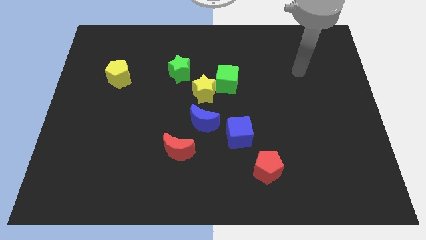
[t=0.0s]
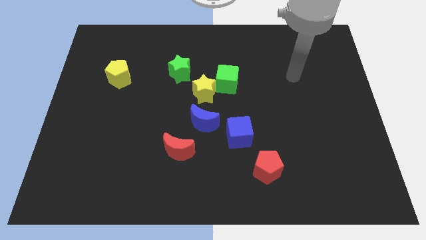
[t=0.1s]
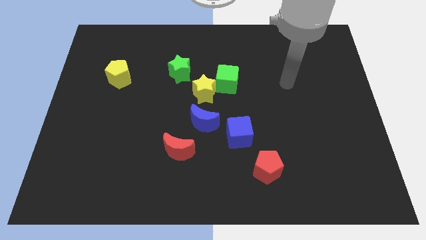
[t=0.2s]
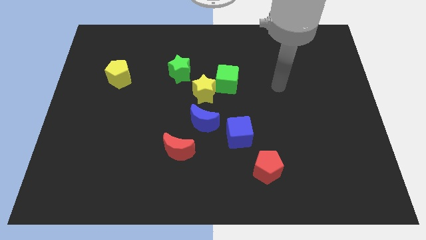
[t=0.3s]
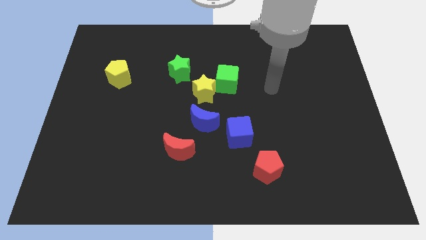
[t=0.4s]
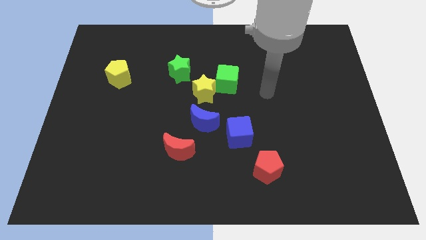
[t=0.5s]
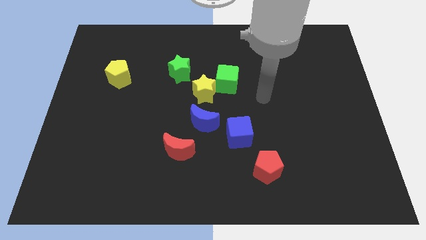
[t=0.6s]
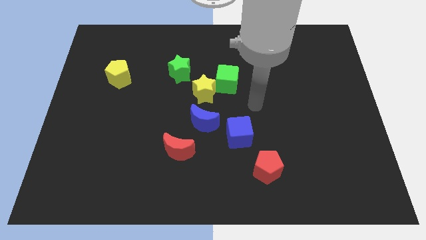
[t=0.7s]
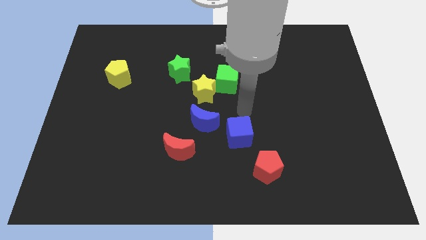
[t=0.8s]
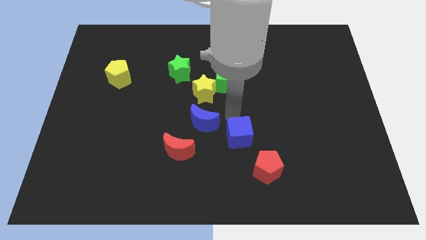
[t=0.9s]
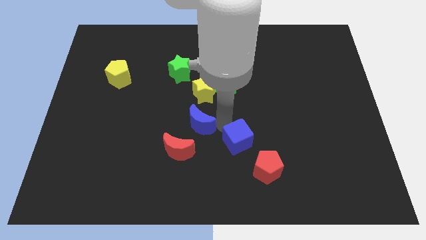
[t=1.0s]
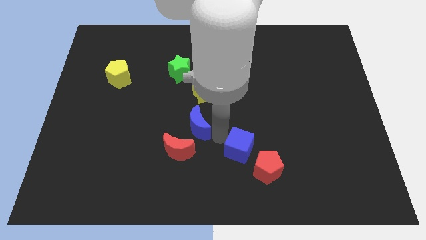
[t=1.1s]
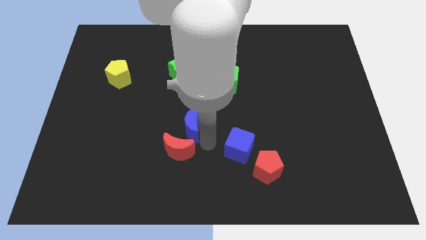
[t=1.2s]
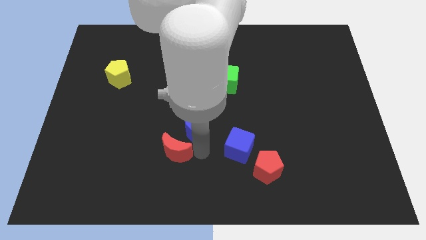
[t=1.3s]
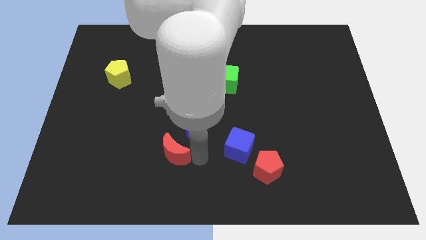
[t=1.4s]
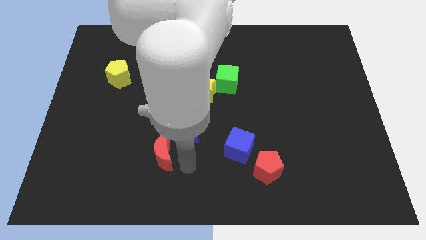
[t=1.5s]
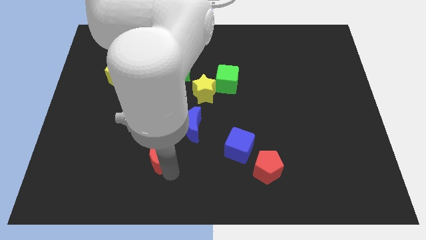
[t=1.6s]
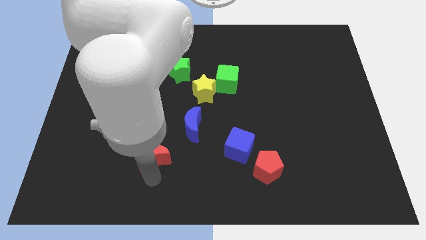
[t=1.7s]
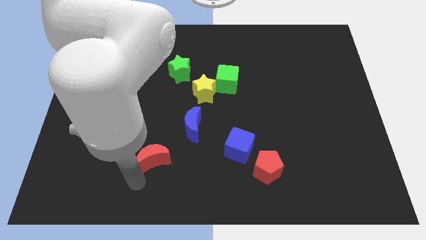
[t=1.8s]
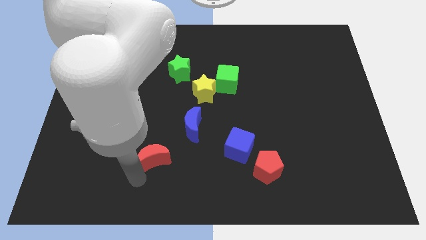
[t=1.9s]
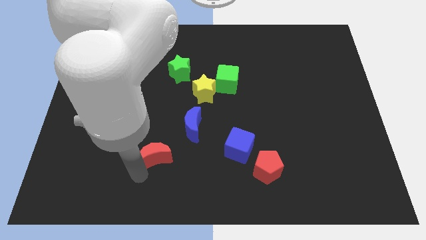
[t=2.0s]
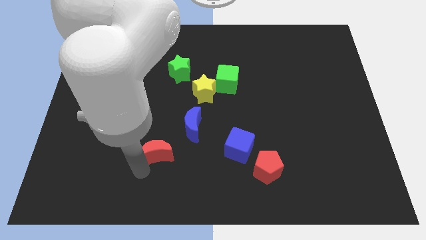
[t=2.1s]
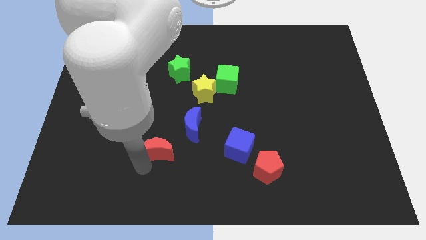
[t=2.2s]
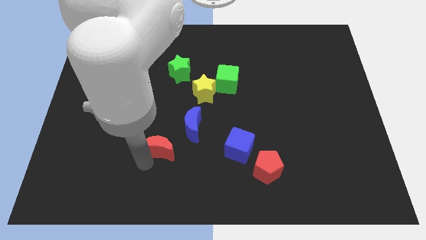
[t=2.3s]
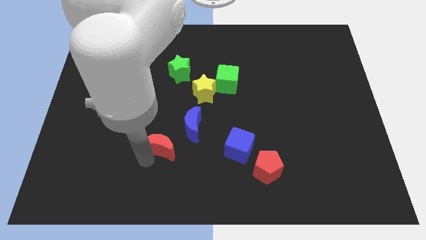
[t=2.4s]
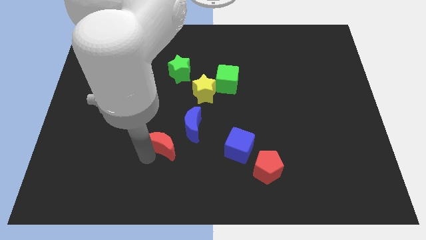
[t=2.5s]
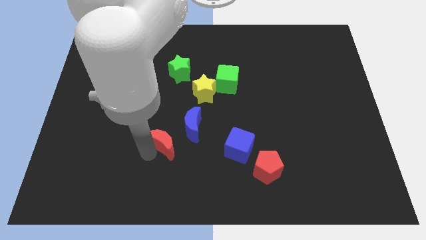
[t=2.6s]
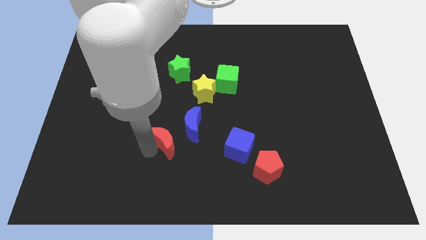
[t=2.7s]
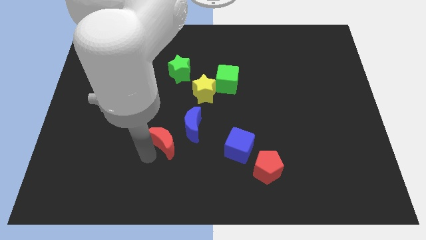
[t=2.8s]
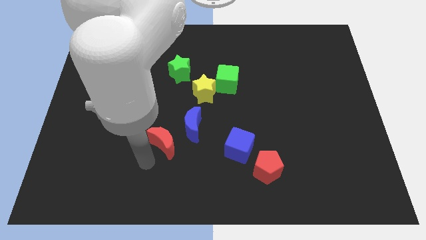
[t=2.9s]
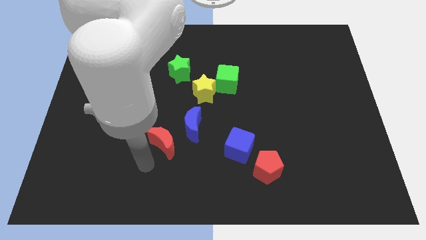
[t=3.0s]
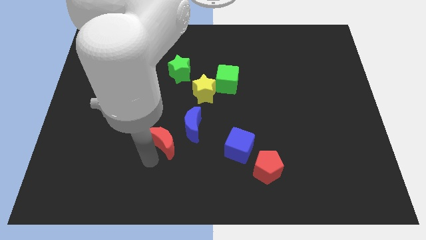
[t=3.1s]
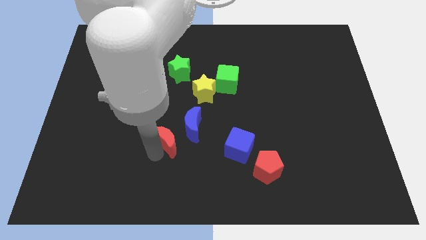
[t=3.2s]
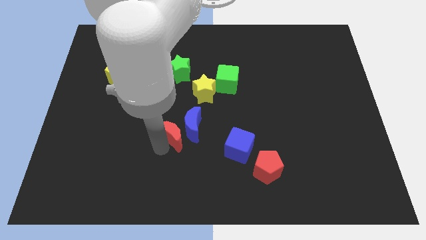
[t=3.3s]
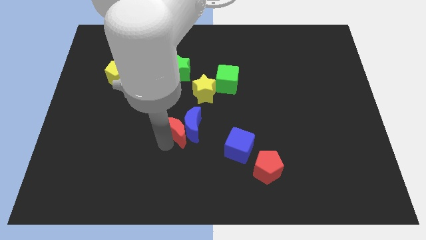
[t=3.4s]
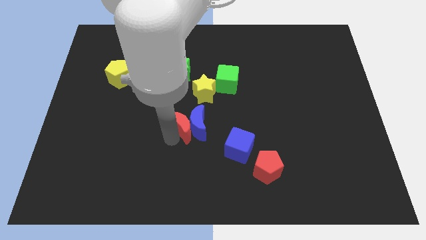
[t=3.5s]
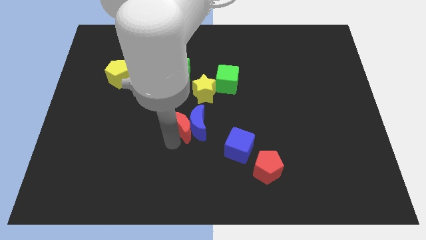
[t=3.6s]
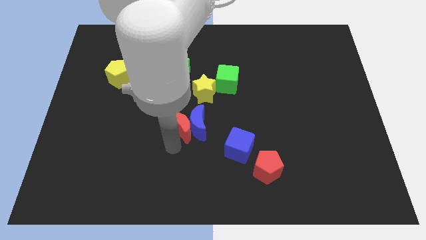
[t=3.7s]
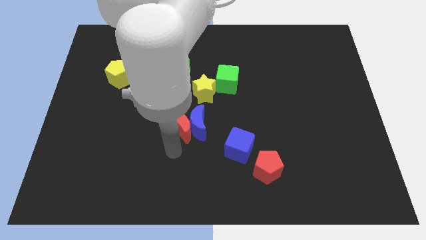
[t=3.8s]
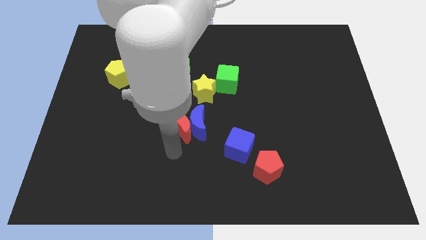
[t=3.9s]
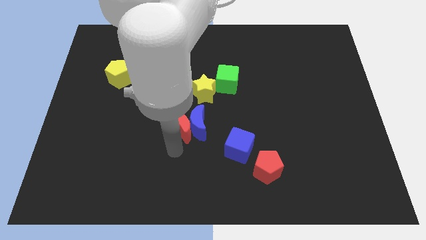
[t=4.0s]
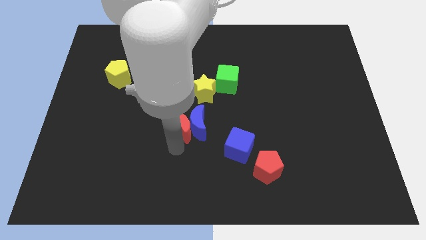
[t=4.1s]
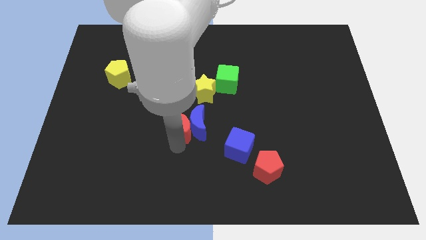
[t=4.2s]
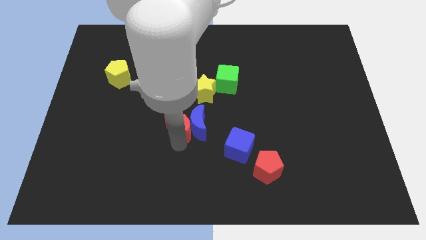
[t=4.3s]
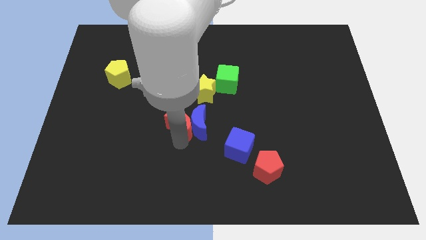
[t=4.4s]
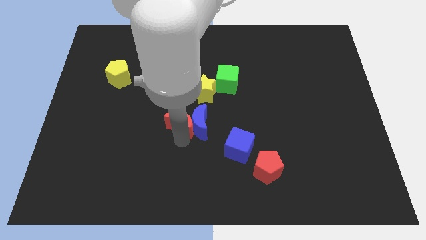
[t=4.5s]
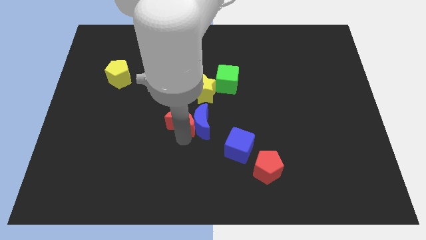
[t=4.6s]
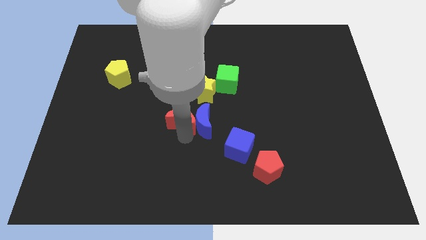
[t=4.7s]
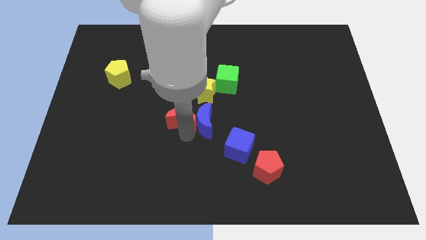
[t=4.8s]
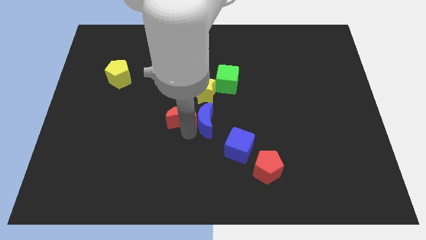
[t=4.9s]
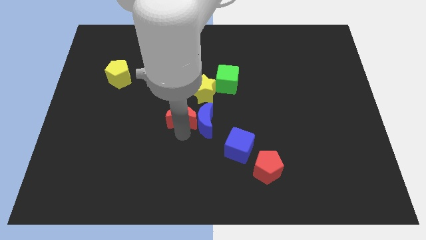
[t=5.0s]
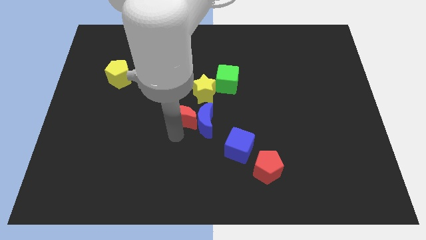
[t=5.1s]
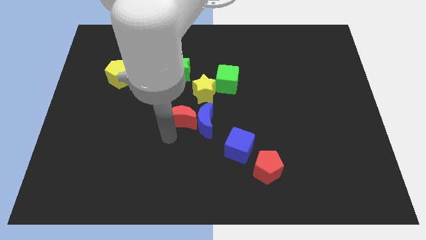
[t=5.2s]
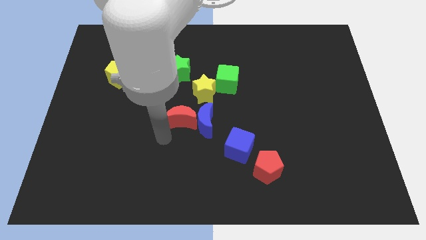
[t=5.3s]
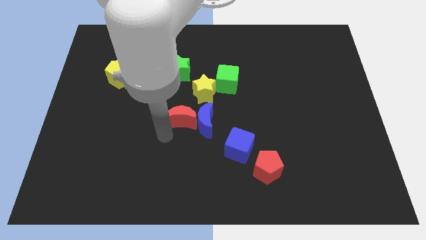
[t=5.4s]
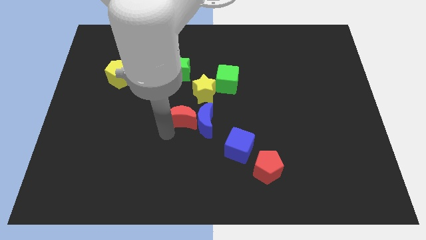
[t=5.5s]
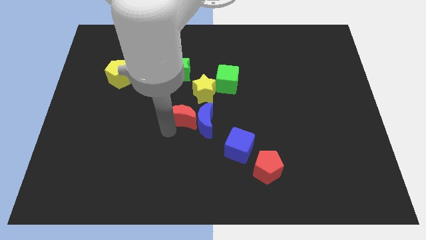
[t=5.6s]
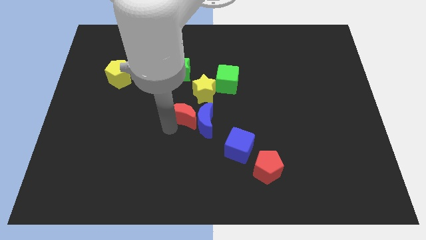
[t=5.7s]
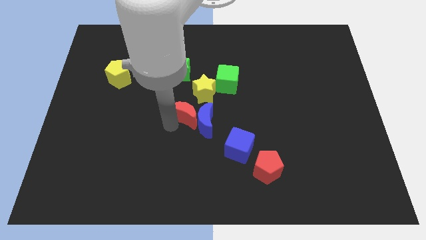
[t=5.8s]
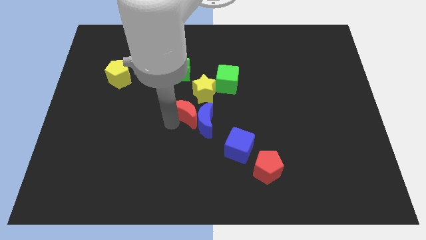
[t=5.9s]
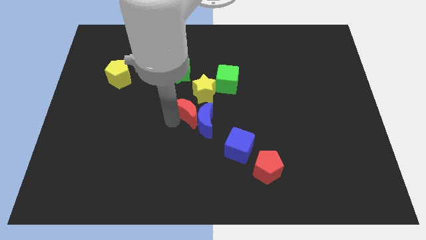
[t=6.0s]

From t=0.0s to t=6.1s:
move the red moon slightly diagonally upwards and to the right

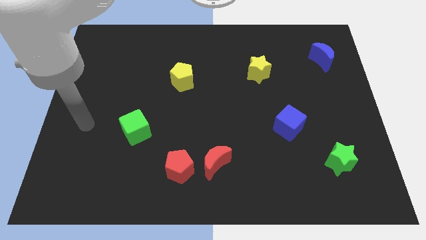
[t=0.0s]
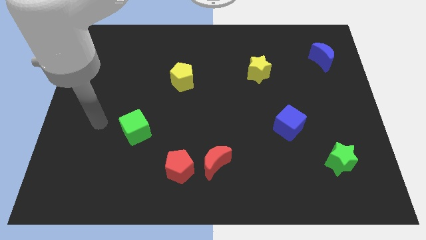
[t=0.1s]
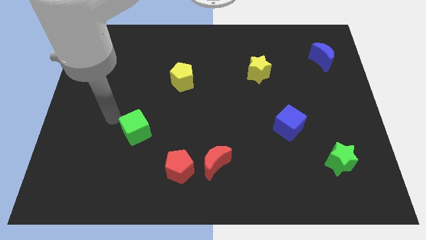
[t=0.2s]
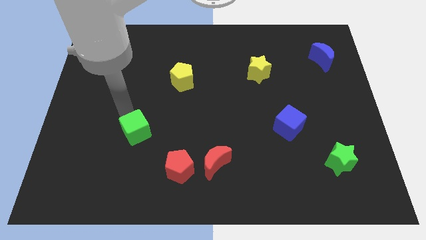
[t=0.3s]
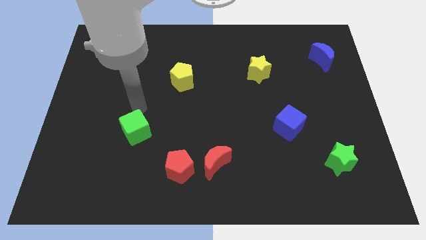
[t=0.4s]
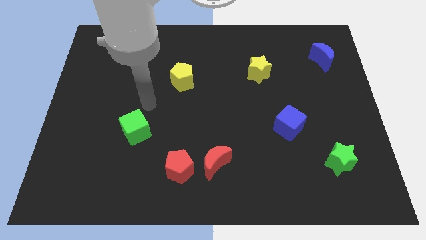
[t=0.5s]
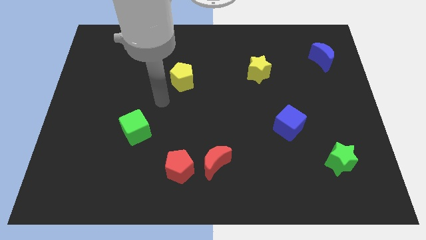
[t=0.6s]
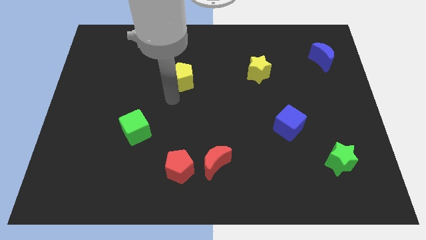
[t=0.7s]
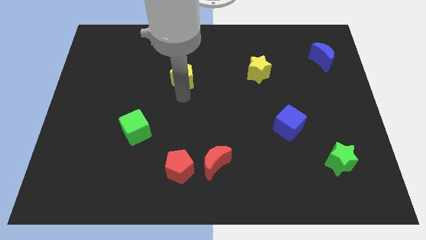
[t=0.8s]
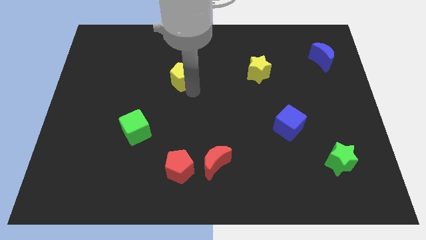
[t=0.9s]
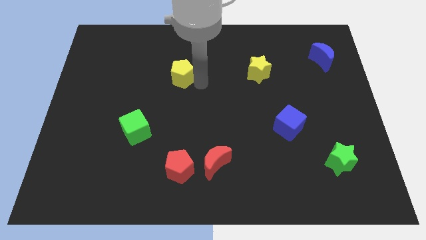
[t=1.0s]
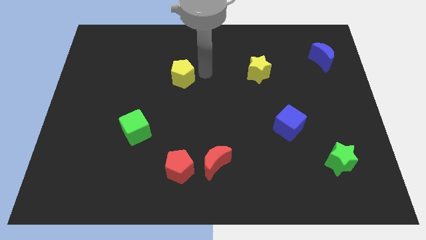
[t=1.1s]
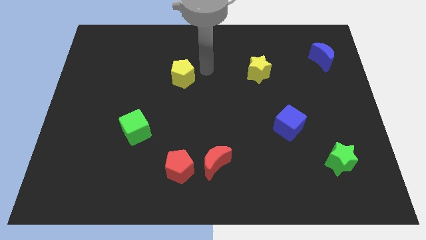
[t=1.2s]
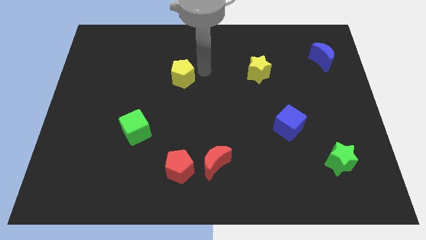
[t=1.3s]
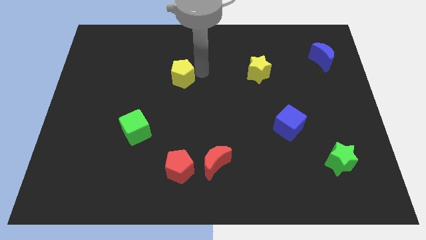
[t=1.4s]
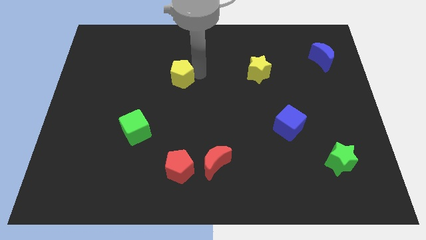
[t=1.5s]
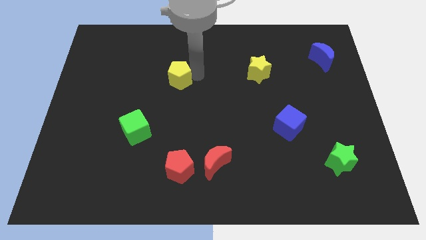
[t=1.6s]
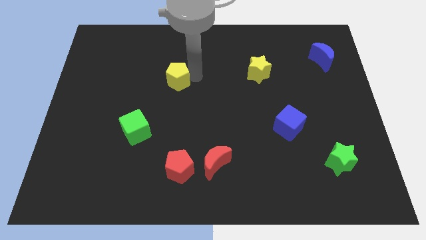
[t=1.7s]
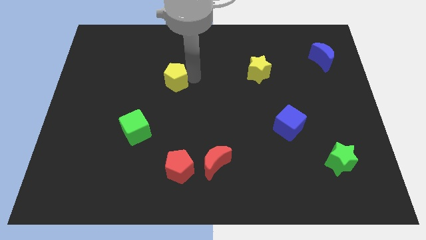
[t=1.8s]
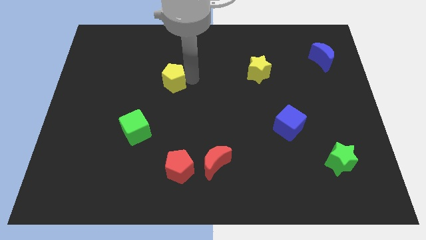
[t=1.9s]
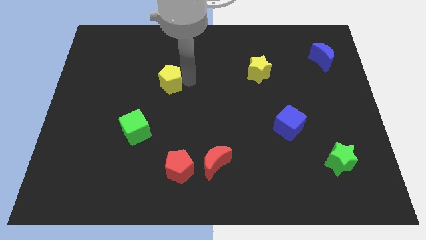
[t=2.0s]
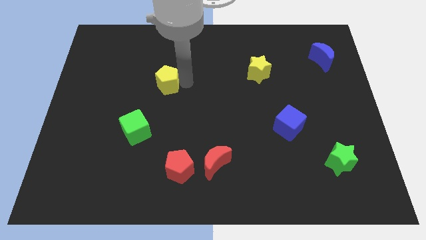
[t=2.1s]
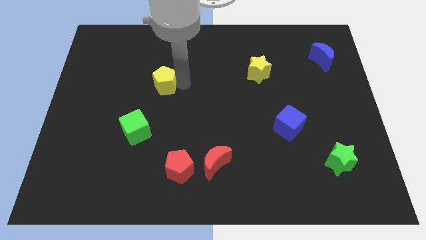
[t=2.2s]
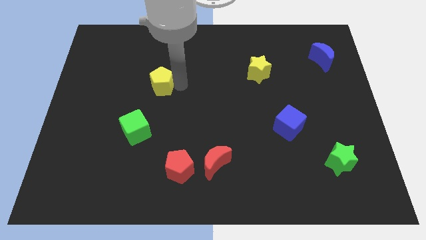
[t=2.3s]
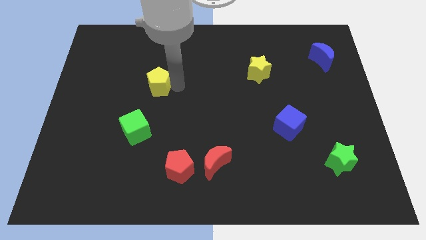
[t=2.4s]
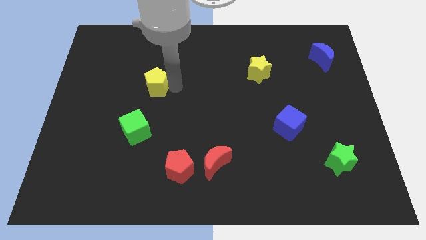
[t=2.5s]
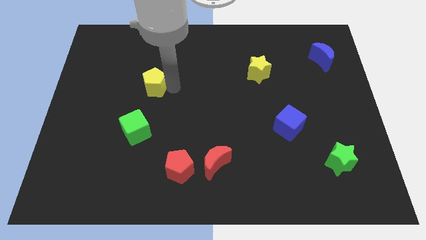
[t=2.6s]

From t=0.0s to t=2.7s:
slide the yellow pentagon a little to the left
